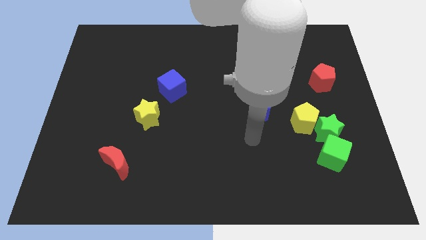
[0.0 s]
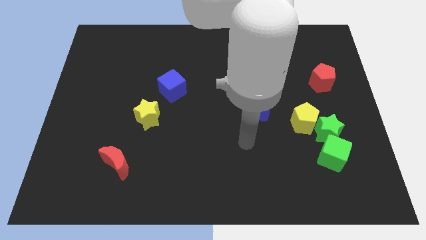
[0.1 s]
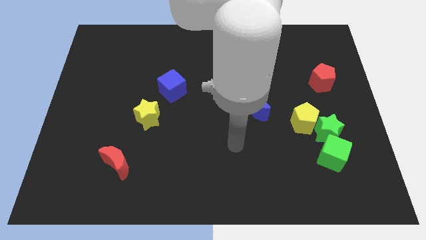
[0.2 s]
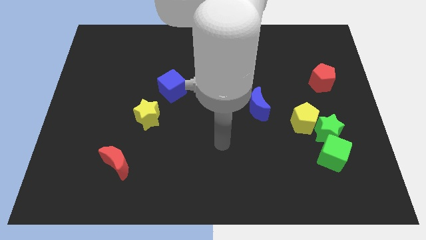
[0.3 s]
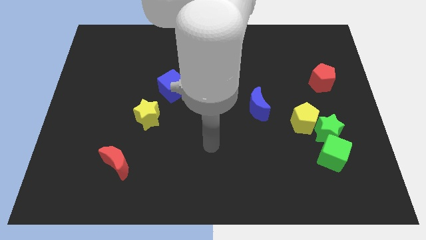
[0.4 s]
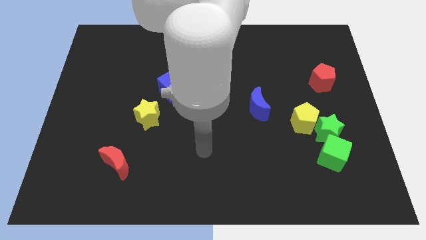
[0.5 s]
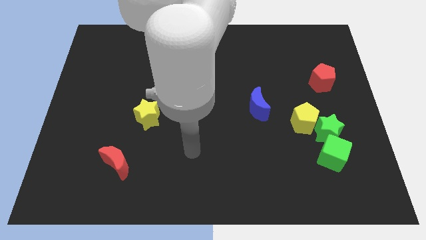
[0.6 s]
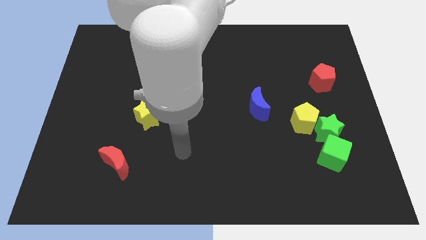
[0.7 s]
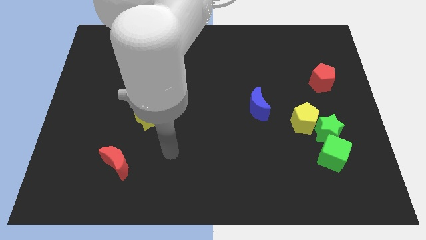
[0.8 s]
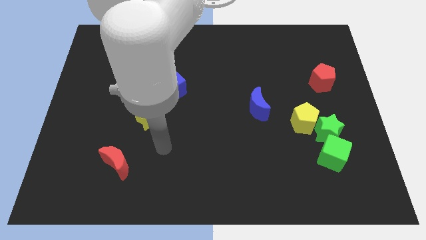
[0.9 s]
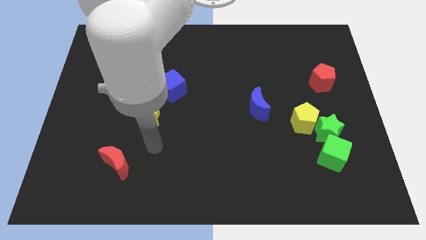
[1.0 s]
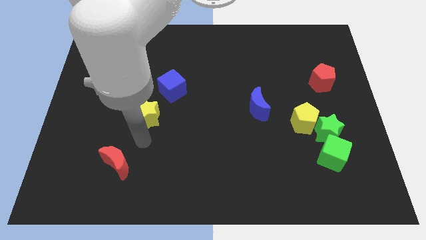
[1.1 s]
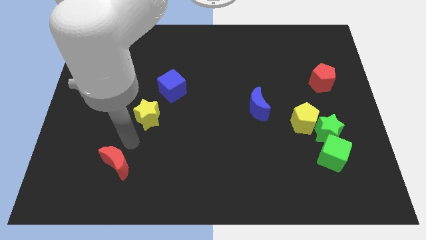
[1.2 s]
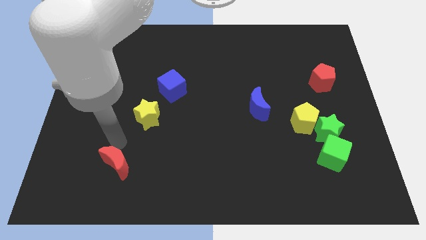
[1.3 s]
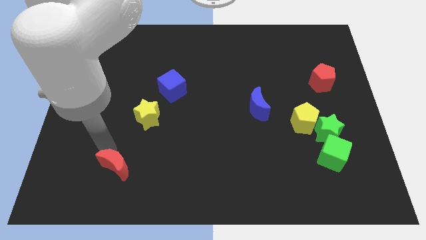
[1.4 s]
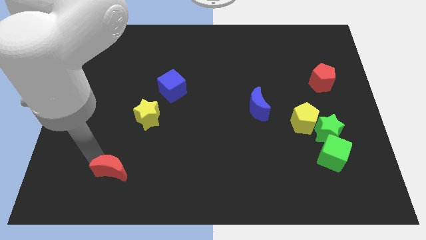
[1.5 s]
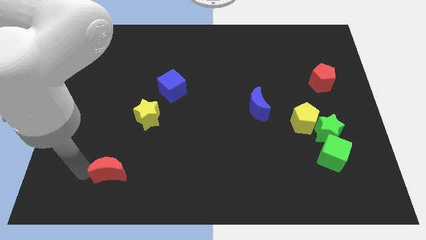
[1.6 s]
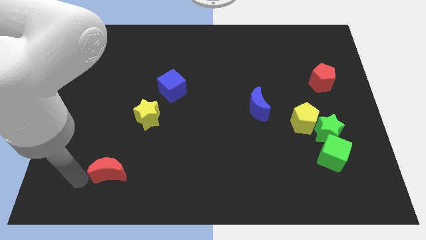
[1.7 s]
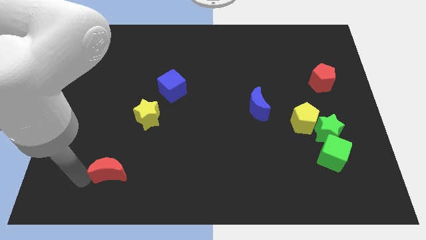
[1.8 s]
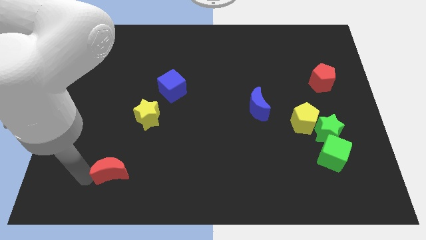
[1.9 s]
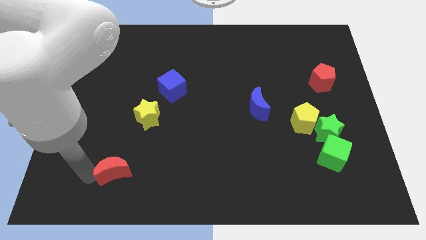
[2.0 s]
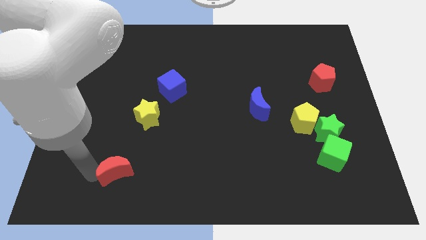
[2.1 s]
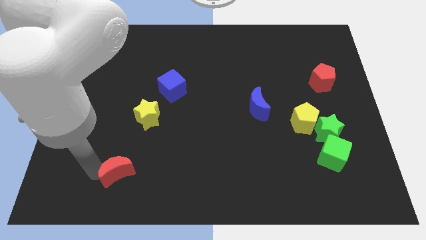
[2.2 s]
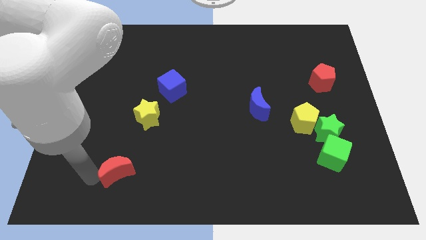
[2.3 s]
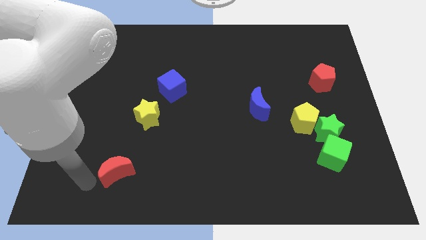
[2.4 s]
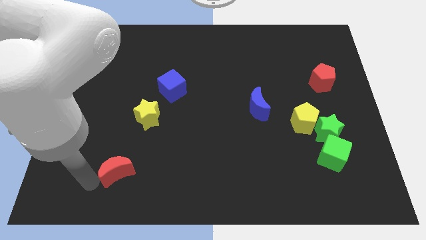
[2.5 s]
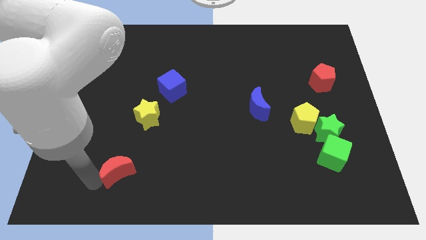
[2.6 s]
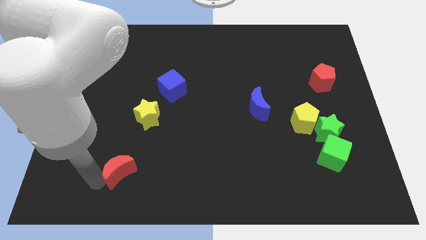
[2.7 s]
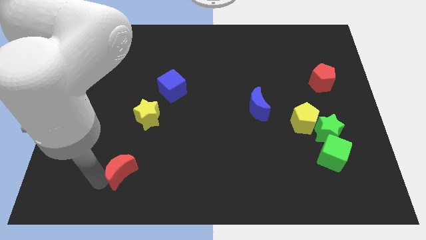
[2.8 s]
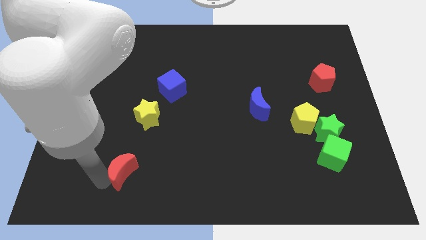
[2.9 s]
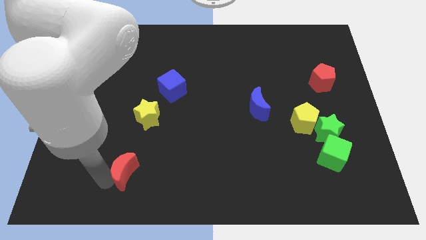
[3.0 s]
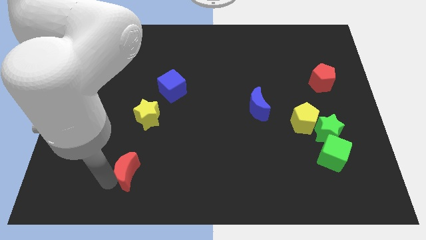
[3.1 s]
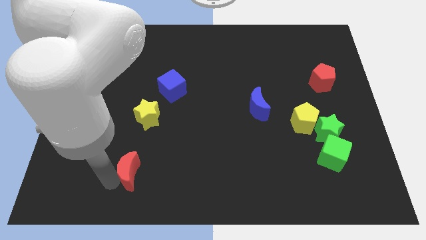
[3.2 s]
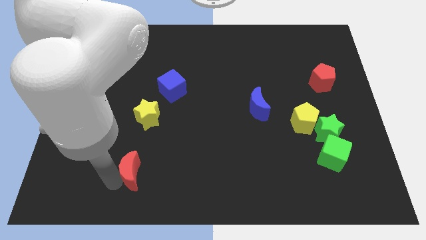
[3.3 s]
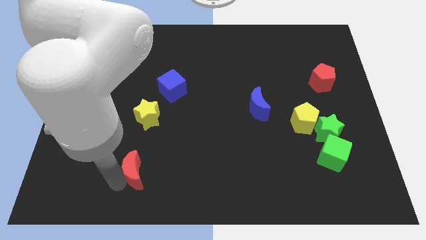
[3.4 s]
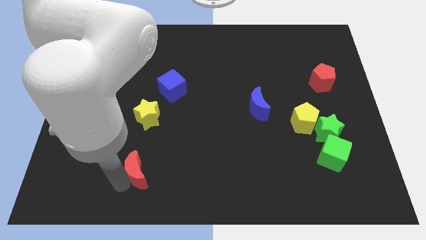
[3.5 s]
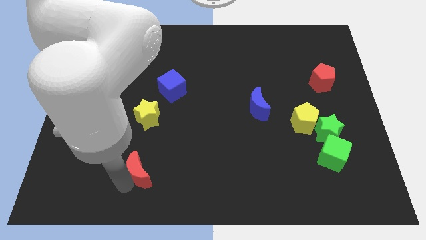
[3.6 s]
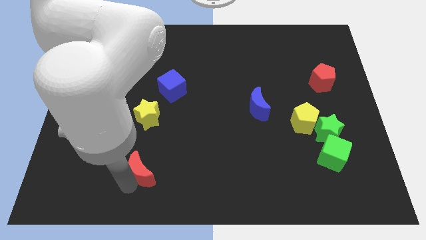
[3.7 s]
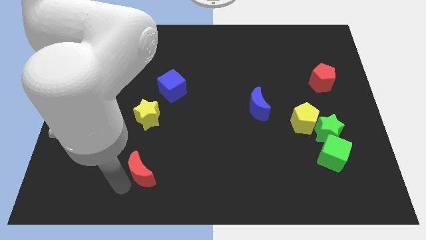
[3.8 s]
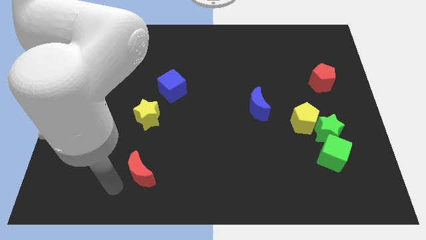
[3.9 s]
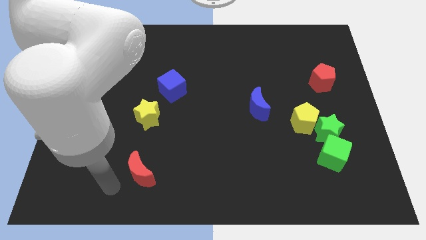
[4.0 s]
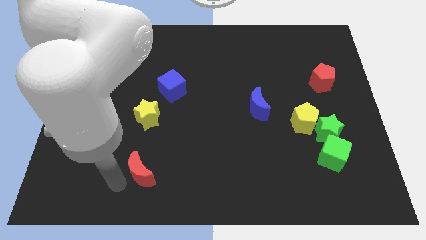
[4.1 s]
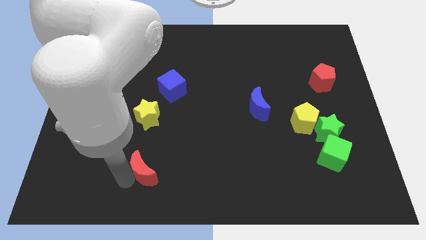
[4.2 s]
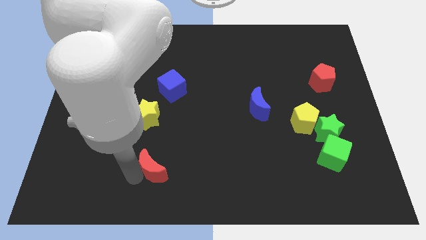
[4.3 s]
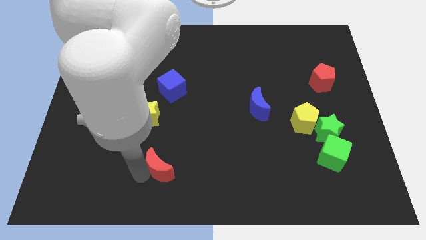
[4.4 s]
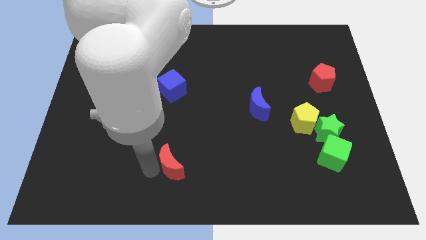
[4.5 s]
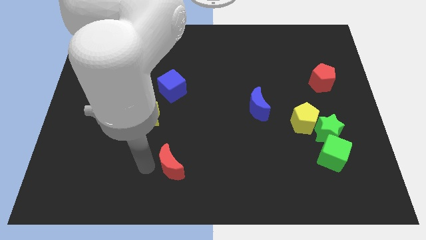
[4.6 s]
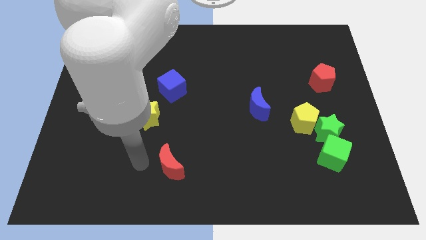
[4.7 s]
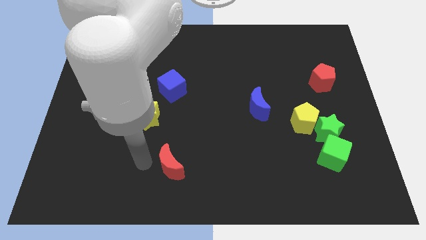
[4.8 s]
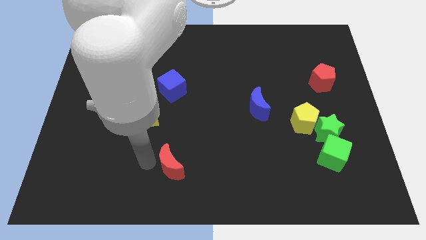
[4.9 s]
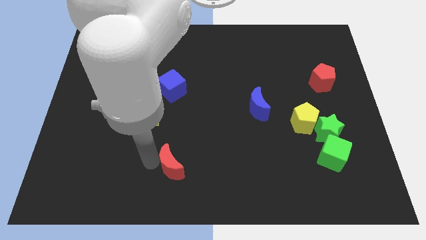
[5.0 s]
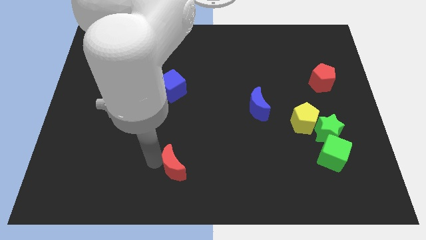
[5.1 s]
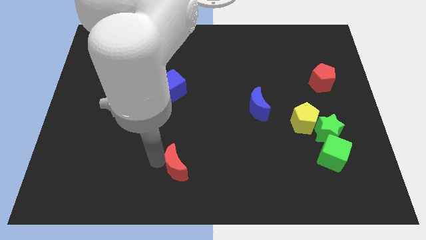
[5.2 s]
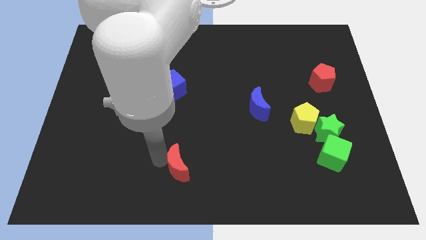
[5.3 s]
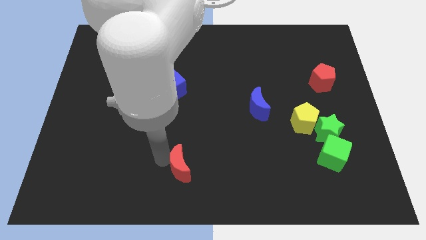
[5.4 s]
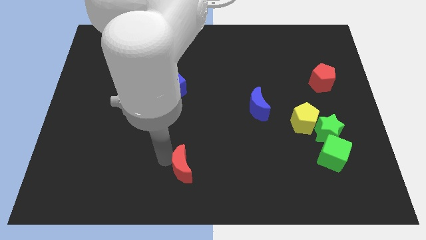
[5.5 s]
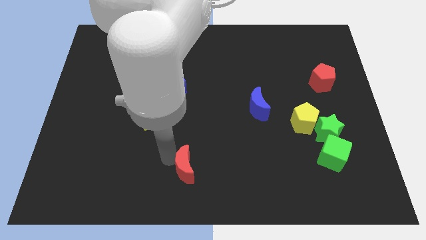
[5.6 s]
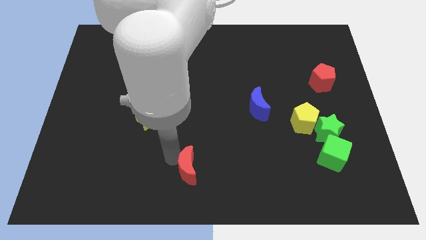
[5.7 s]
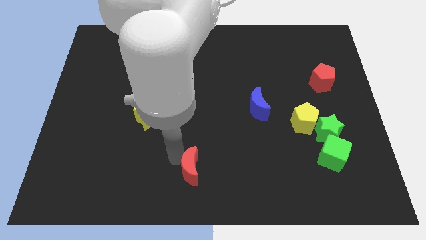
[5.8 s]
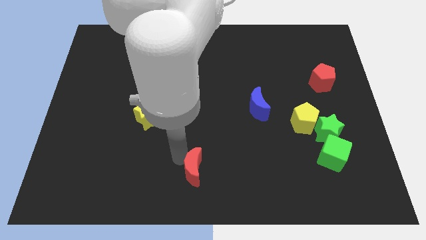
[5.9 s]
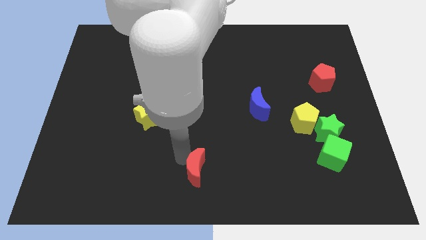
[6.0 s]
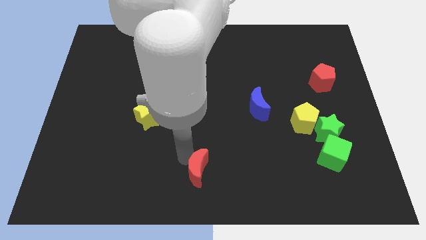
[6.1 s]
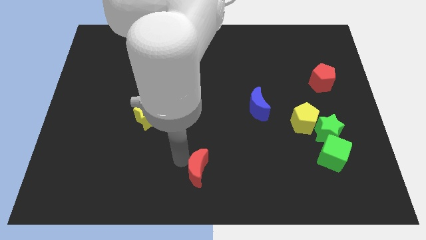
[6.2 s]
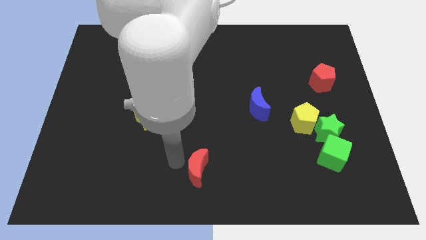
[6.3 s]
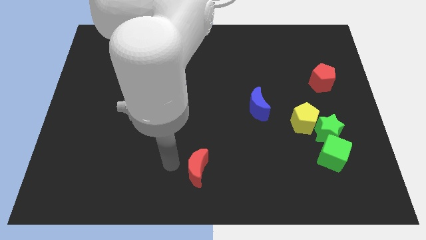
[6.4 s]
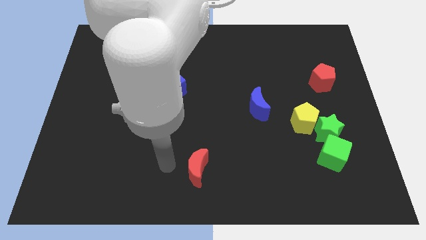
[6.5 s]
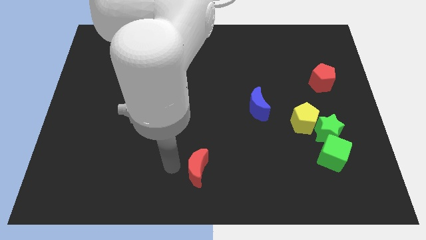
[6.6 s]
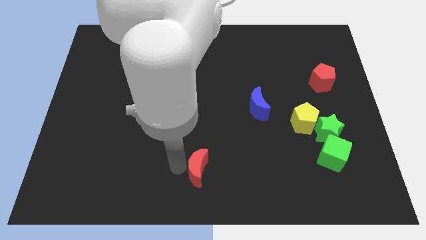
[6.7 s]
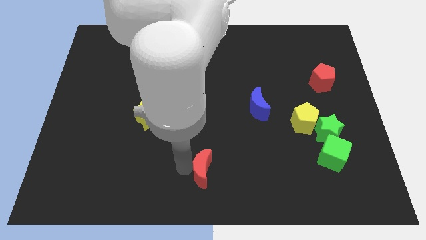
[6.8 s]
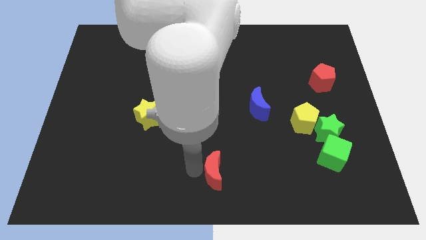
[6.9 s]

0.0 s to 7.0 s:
move the red moon to the right

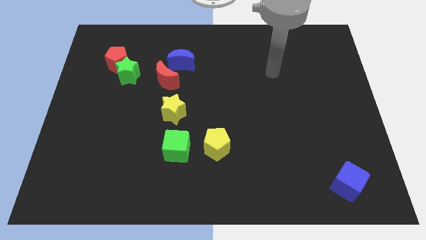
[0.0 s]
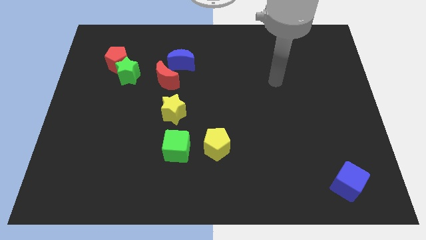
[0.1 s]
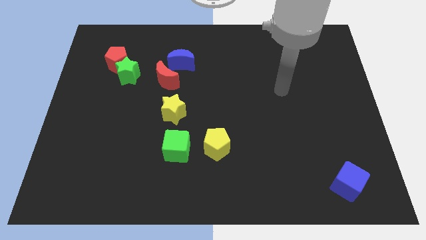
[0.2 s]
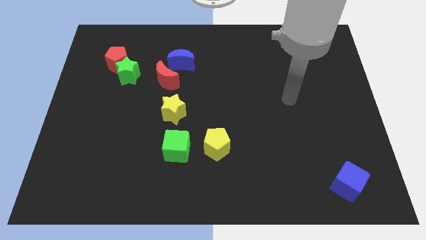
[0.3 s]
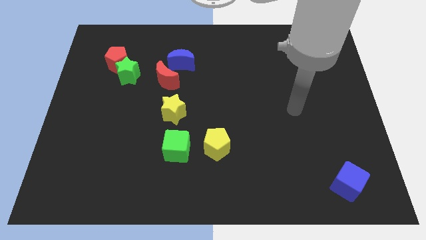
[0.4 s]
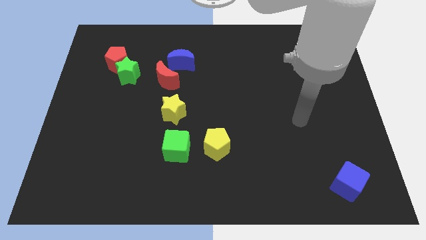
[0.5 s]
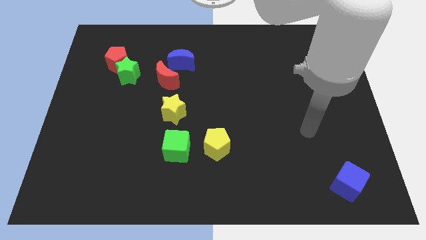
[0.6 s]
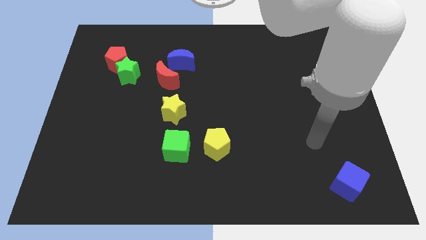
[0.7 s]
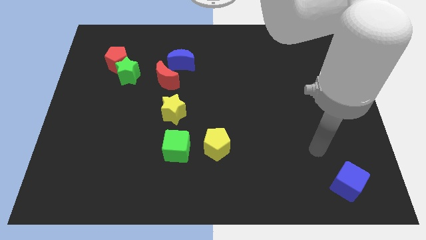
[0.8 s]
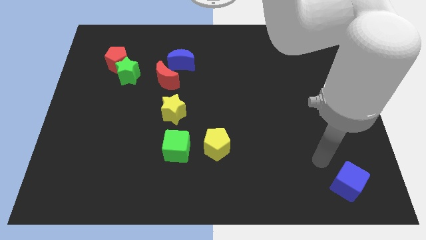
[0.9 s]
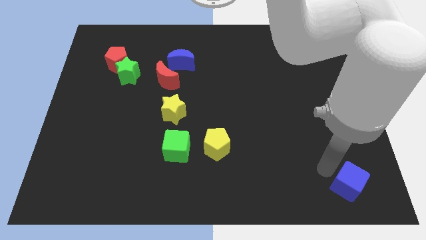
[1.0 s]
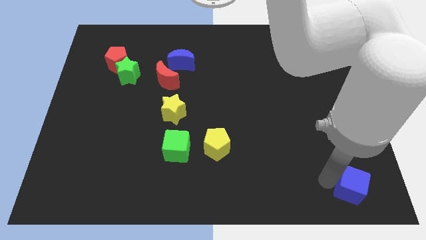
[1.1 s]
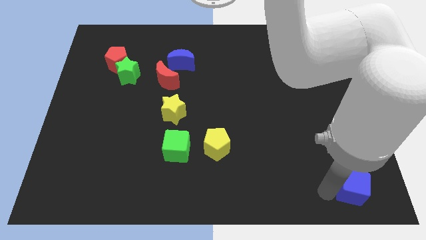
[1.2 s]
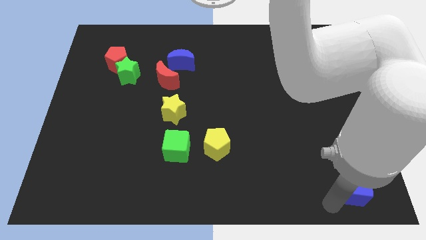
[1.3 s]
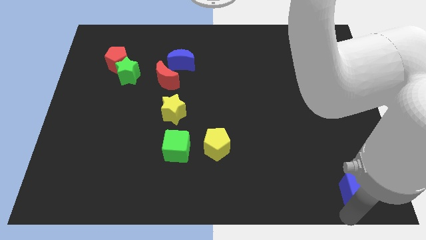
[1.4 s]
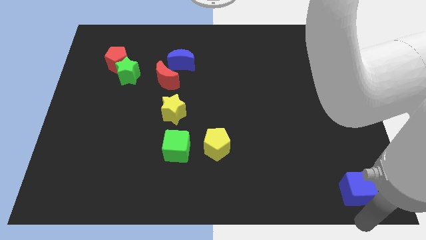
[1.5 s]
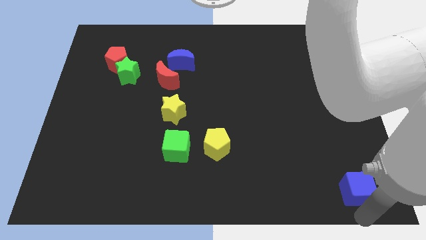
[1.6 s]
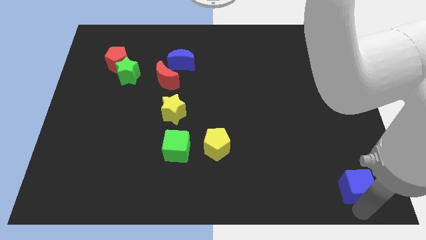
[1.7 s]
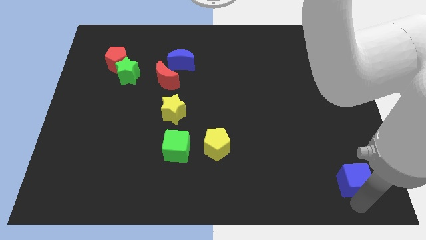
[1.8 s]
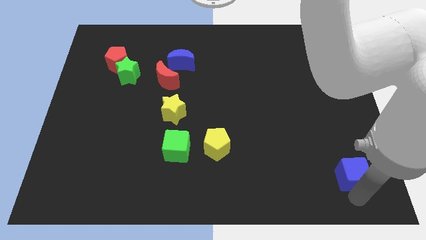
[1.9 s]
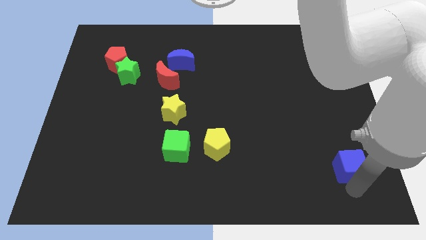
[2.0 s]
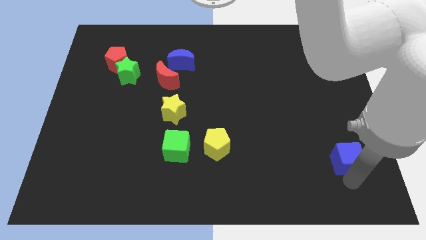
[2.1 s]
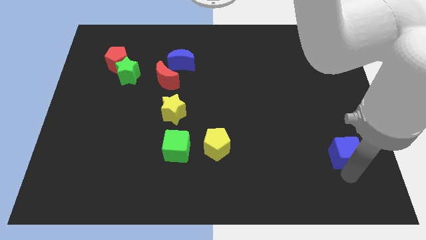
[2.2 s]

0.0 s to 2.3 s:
move the blue cube up slightly
